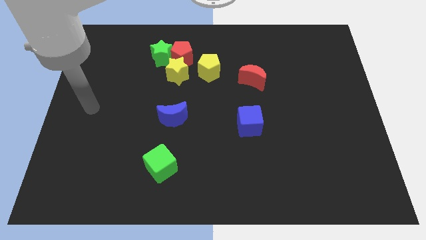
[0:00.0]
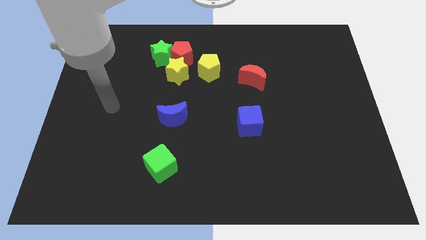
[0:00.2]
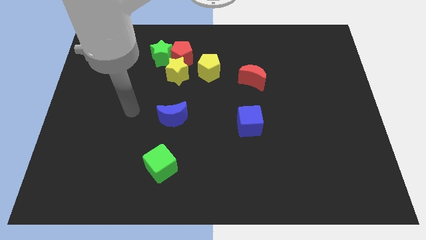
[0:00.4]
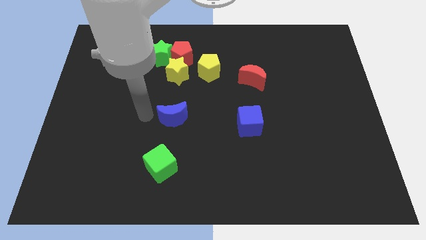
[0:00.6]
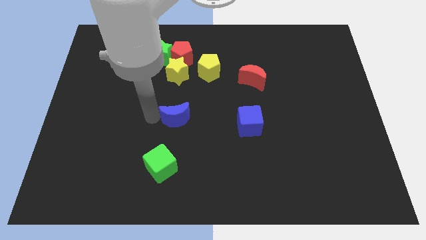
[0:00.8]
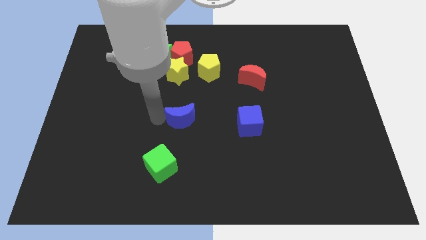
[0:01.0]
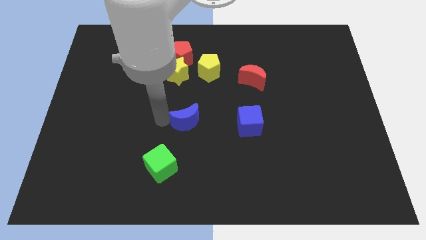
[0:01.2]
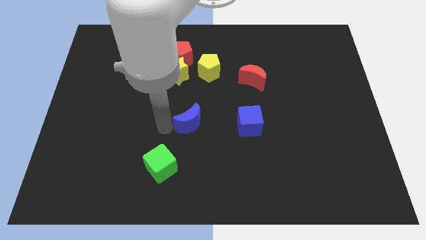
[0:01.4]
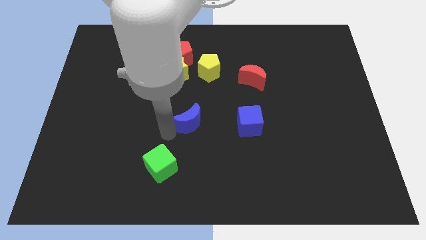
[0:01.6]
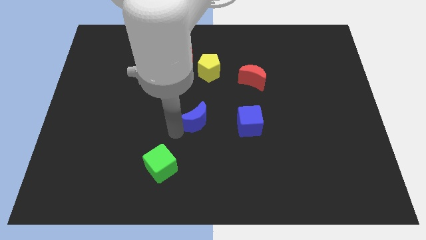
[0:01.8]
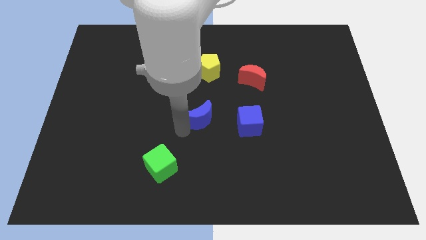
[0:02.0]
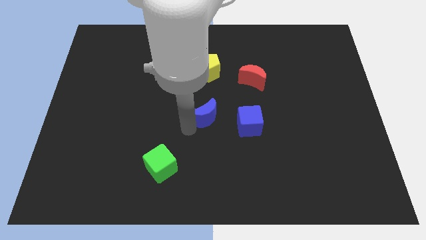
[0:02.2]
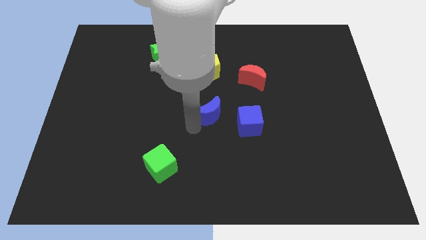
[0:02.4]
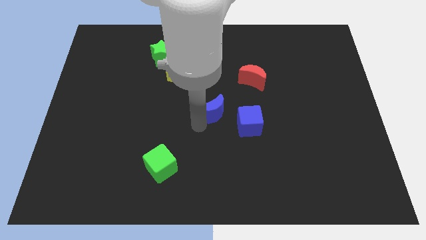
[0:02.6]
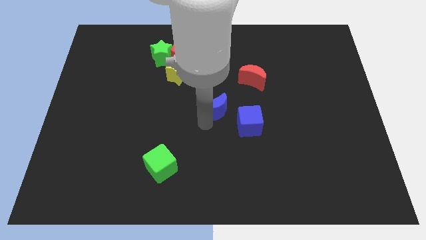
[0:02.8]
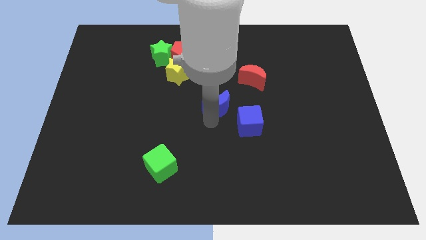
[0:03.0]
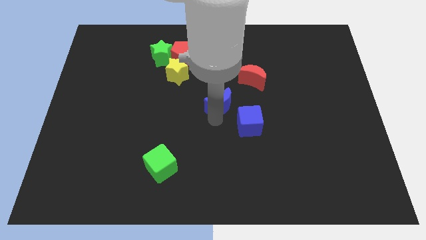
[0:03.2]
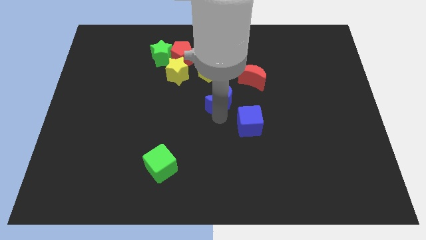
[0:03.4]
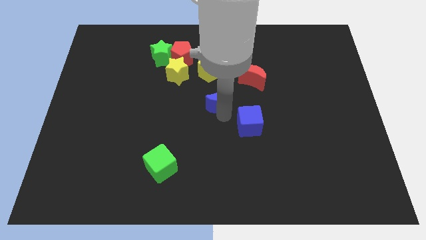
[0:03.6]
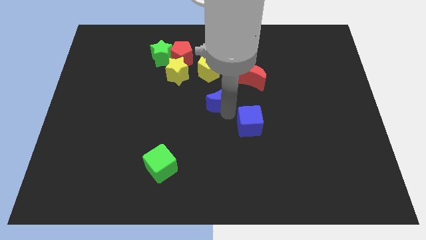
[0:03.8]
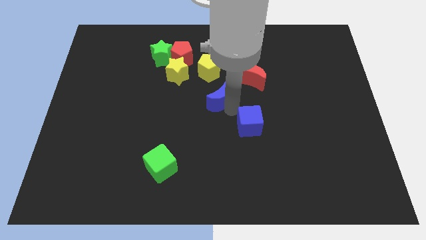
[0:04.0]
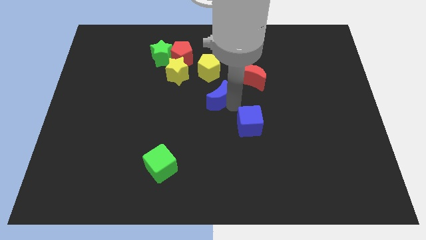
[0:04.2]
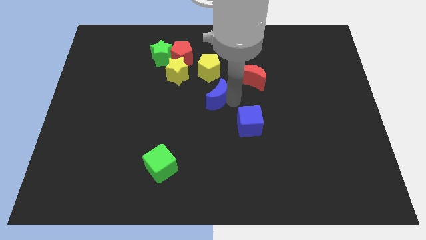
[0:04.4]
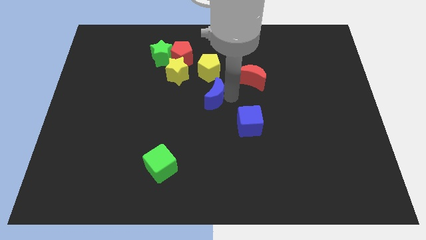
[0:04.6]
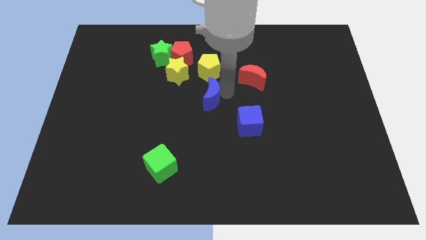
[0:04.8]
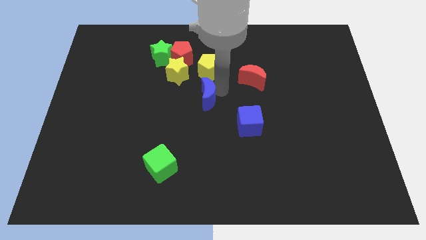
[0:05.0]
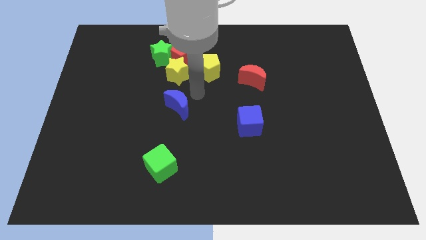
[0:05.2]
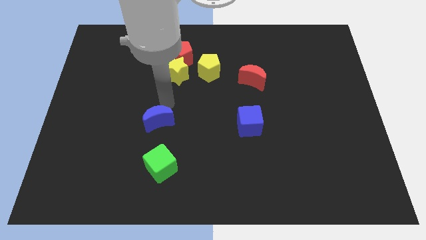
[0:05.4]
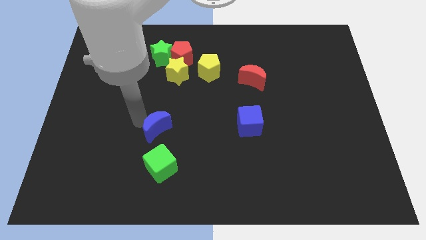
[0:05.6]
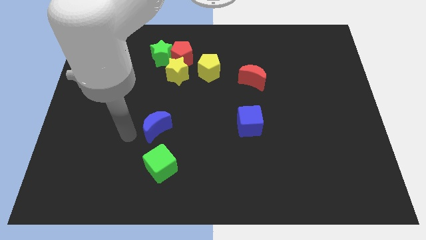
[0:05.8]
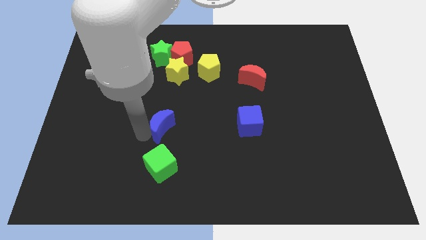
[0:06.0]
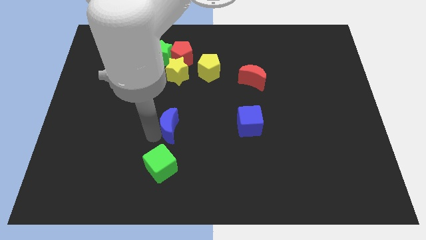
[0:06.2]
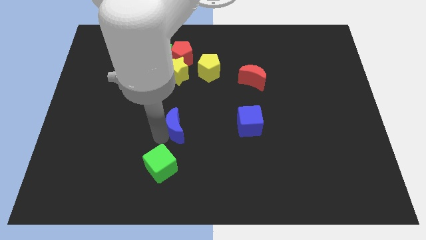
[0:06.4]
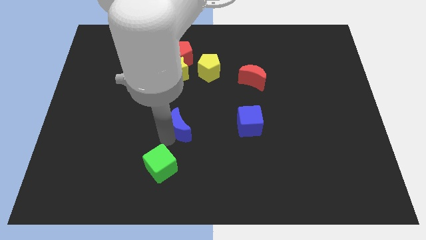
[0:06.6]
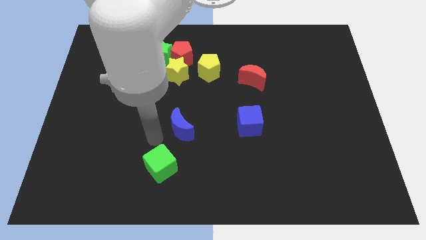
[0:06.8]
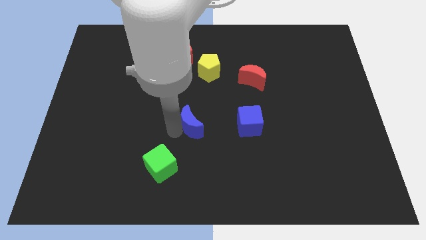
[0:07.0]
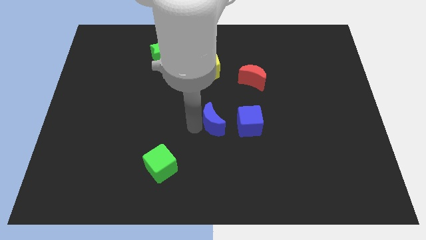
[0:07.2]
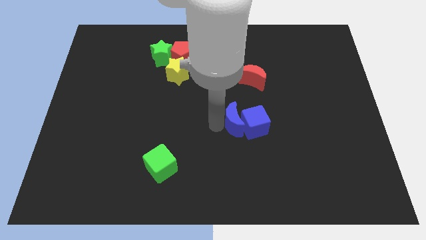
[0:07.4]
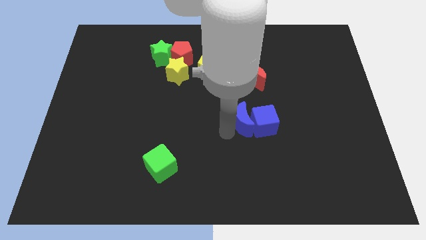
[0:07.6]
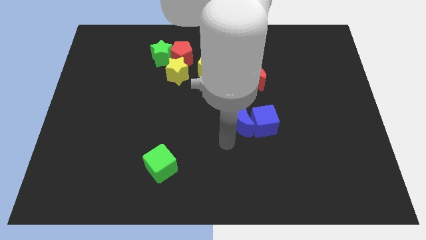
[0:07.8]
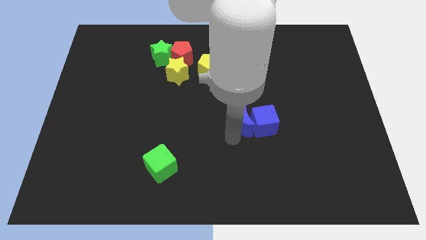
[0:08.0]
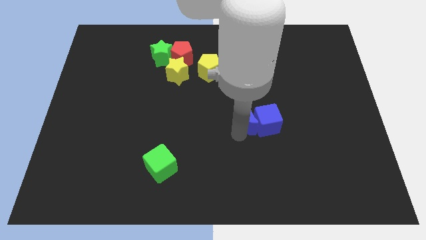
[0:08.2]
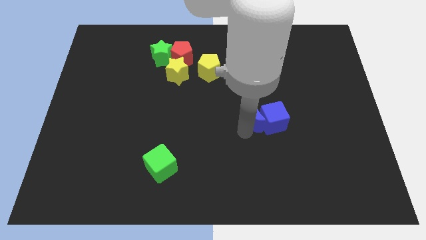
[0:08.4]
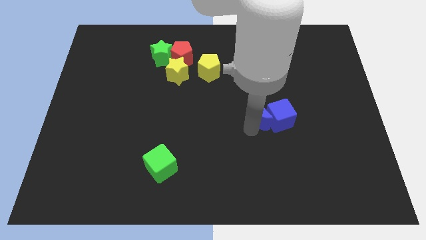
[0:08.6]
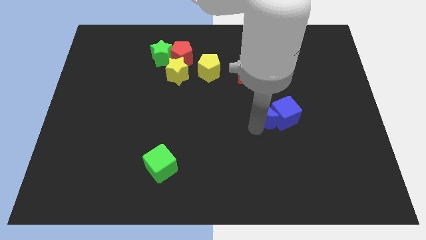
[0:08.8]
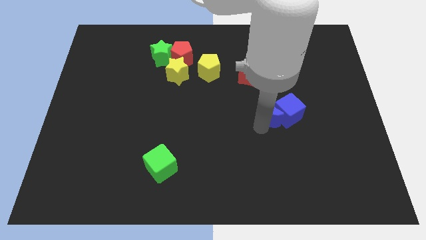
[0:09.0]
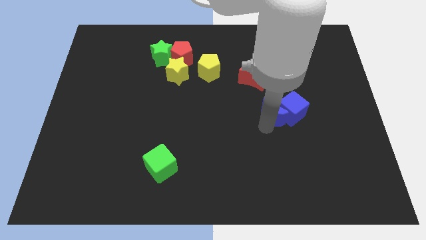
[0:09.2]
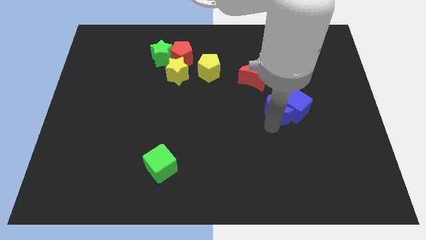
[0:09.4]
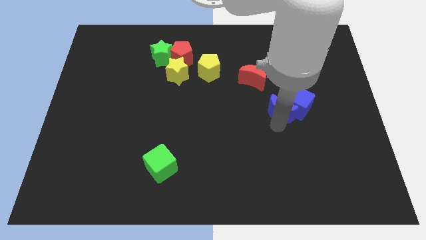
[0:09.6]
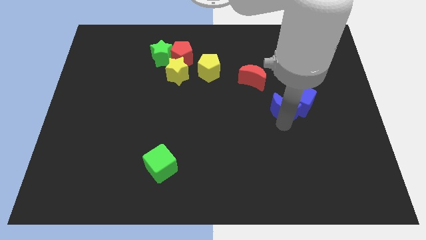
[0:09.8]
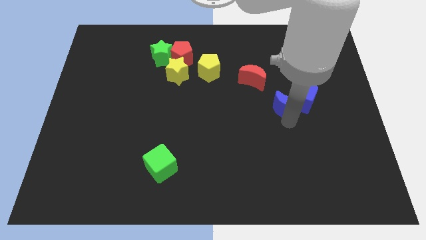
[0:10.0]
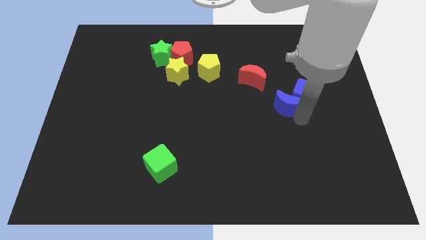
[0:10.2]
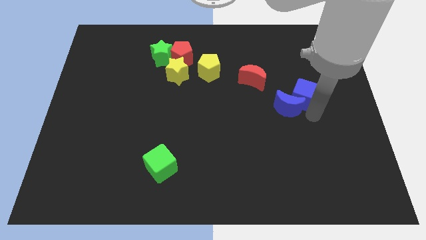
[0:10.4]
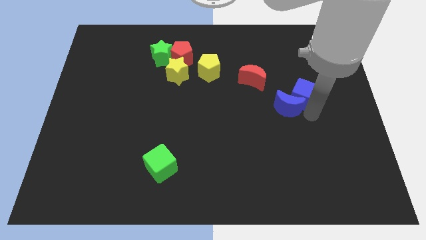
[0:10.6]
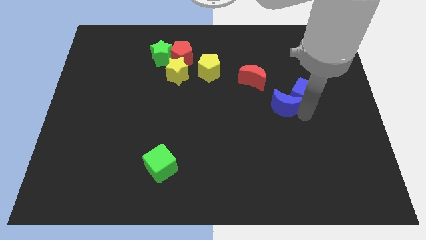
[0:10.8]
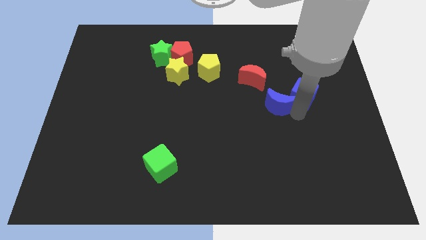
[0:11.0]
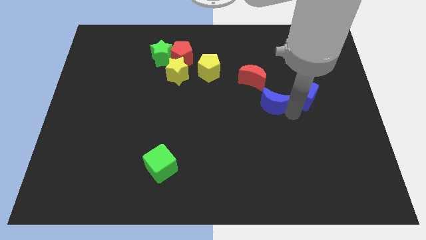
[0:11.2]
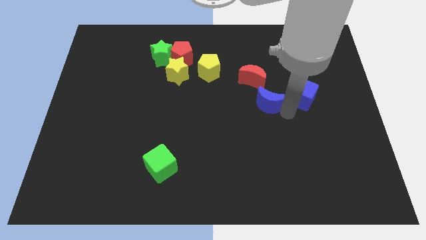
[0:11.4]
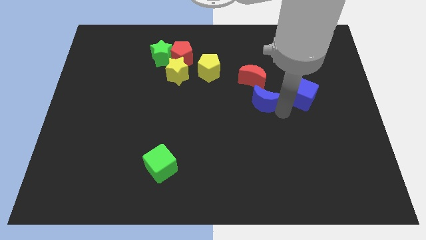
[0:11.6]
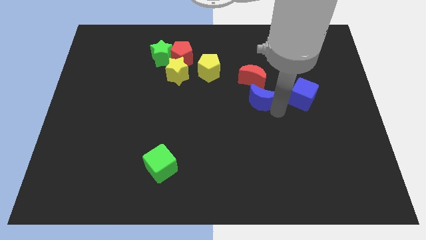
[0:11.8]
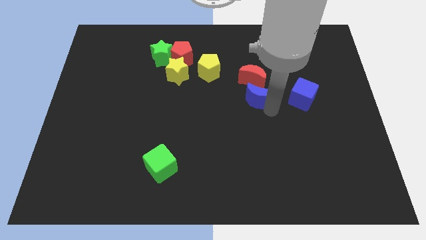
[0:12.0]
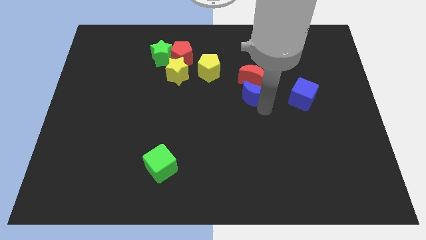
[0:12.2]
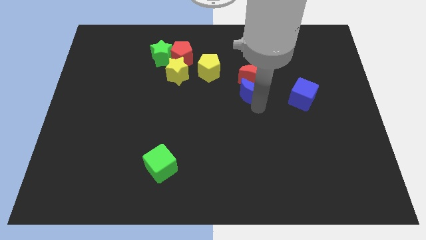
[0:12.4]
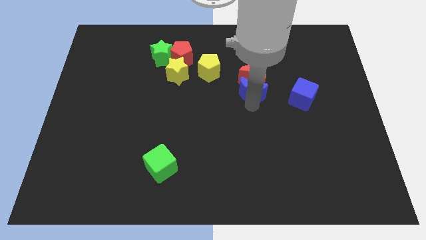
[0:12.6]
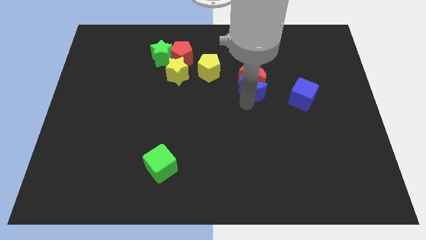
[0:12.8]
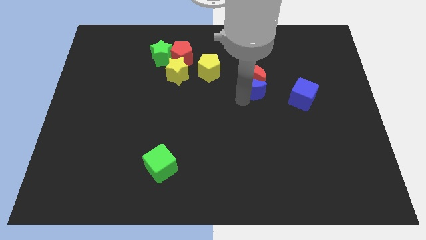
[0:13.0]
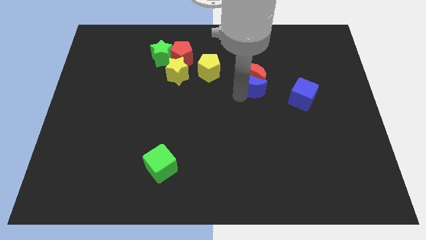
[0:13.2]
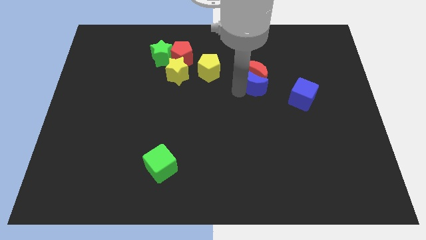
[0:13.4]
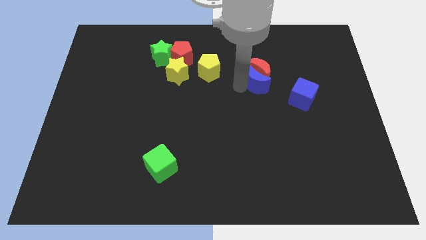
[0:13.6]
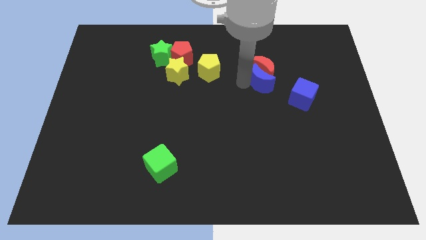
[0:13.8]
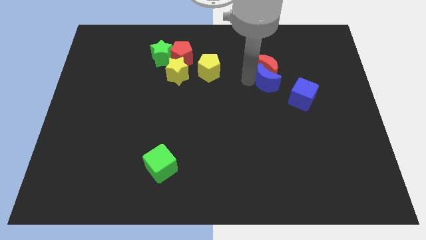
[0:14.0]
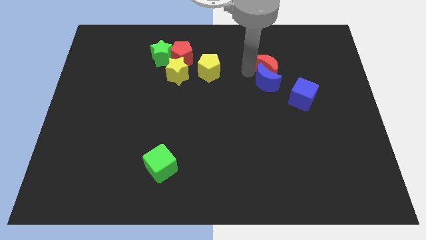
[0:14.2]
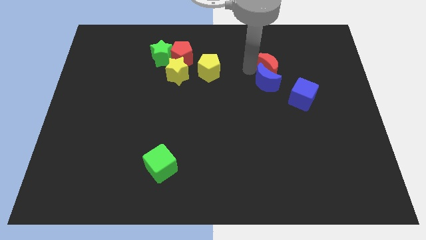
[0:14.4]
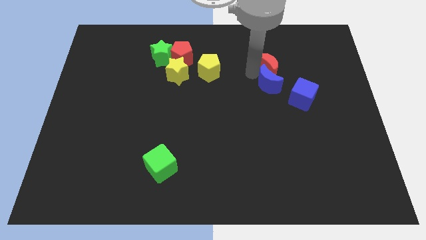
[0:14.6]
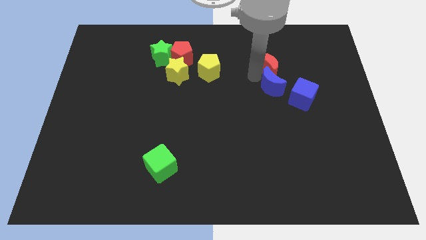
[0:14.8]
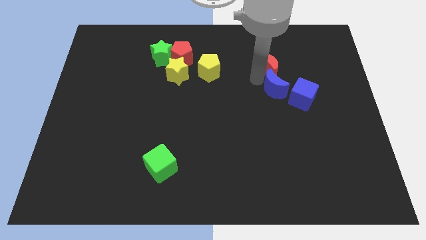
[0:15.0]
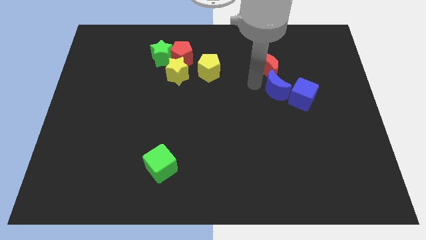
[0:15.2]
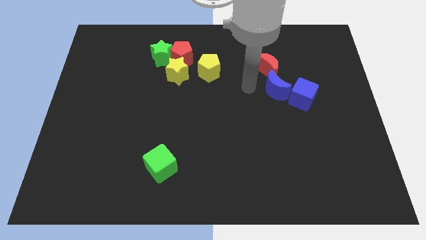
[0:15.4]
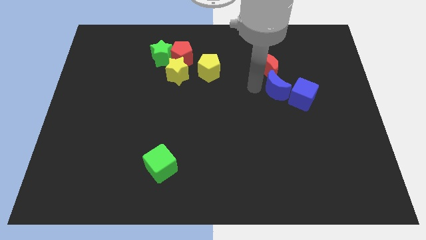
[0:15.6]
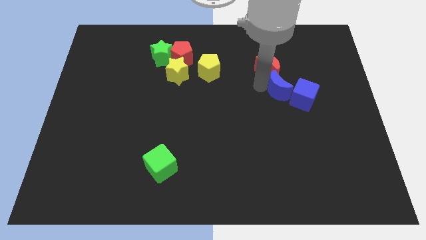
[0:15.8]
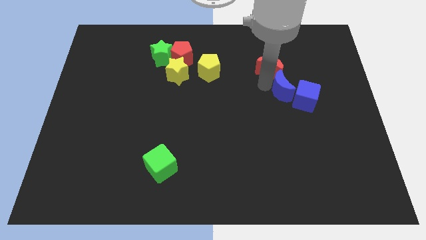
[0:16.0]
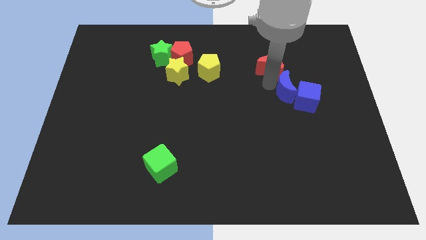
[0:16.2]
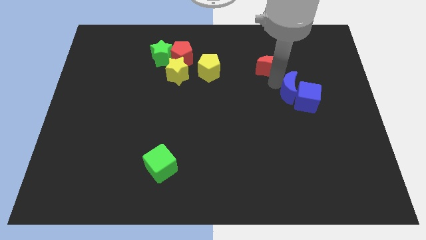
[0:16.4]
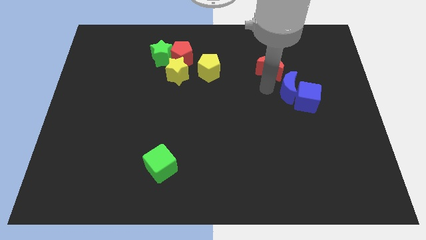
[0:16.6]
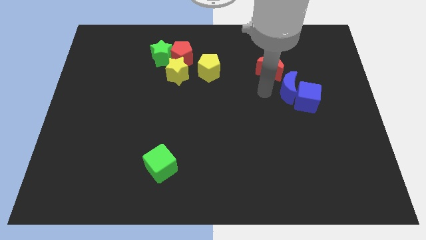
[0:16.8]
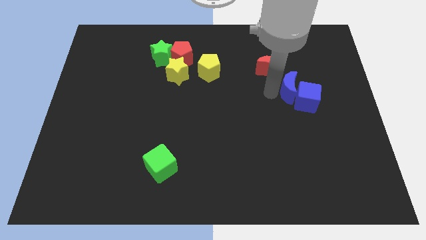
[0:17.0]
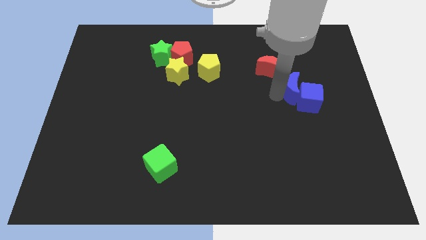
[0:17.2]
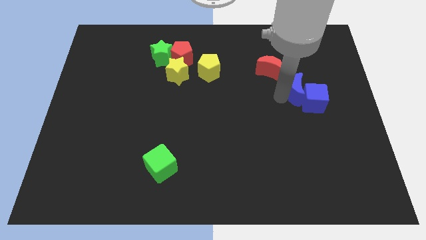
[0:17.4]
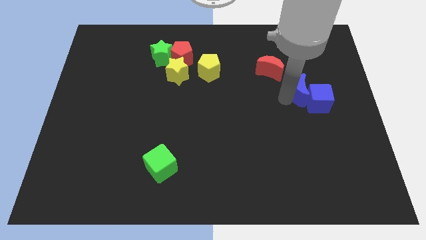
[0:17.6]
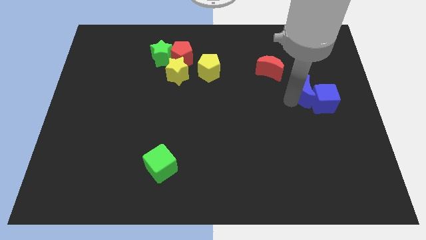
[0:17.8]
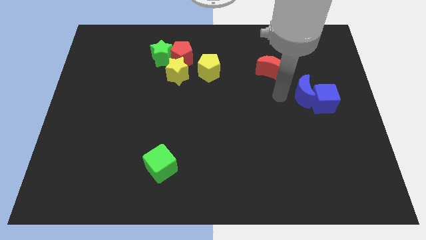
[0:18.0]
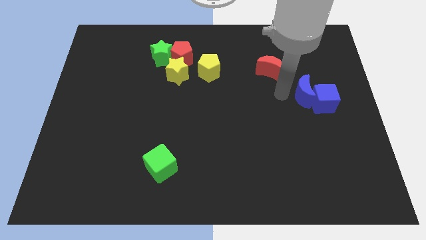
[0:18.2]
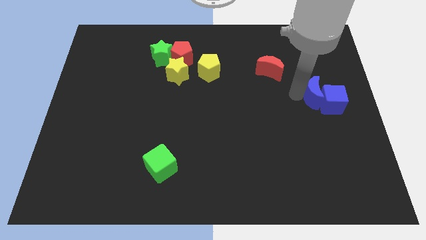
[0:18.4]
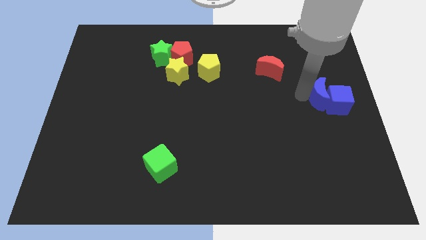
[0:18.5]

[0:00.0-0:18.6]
put the blue moon to the right side of the board
